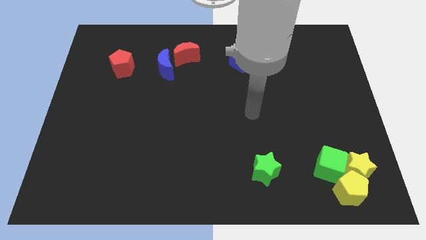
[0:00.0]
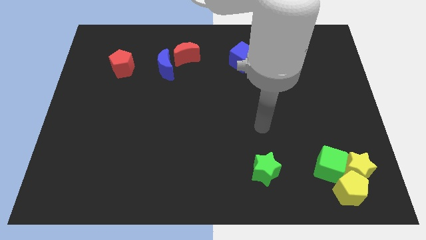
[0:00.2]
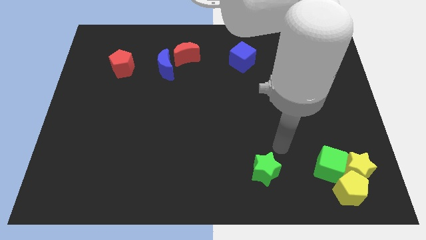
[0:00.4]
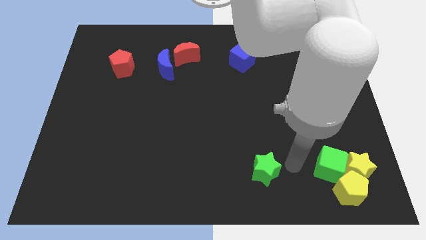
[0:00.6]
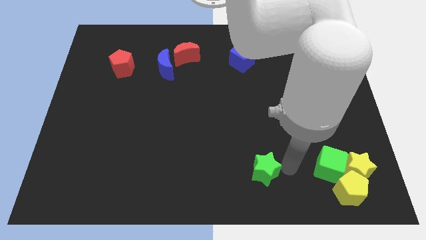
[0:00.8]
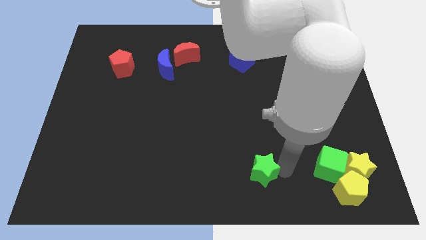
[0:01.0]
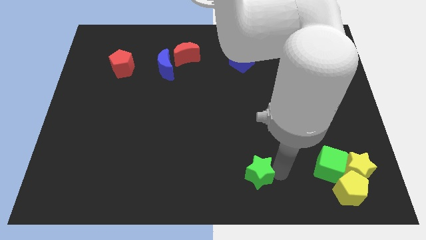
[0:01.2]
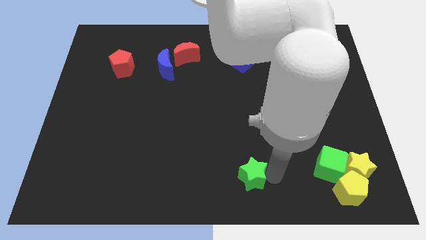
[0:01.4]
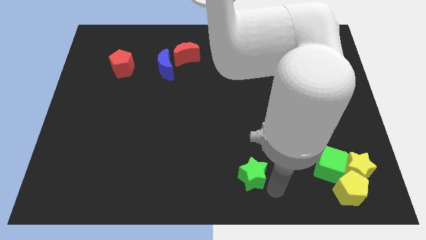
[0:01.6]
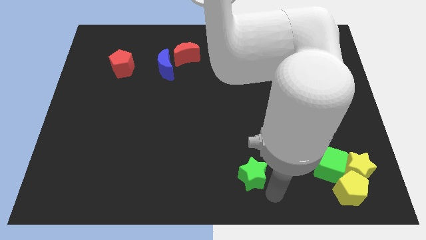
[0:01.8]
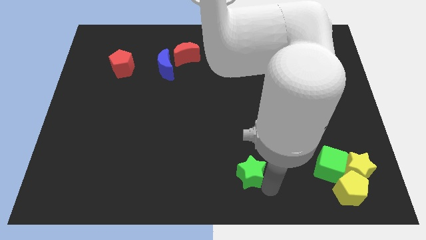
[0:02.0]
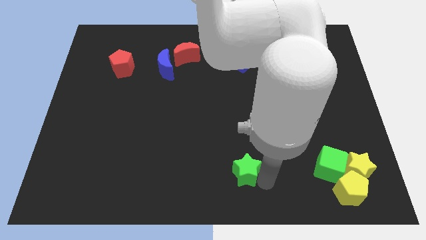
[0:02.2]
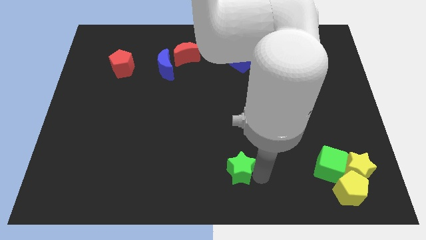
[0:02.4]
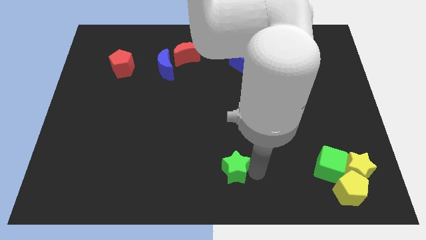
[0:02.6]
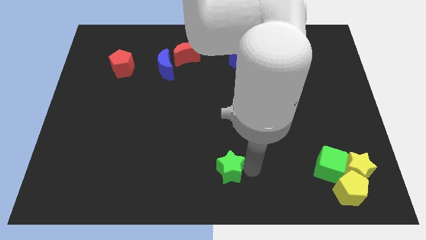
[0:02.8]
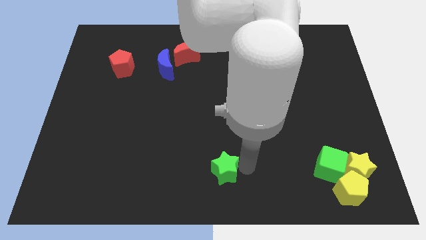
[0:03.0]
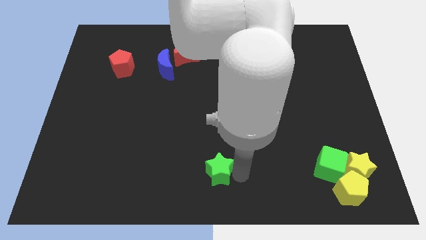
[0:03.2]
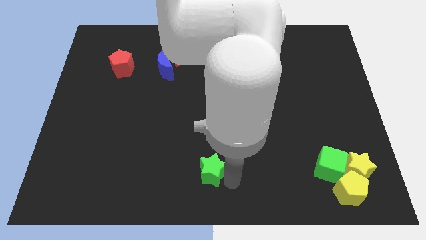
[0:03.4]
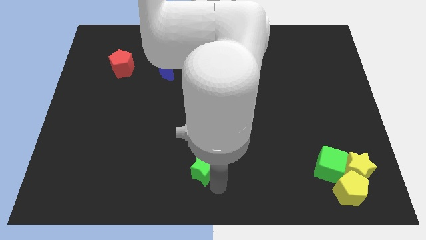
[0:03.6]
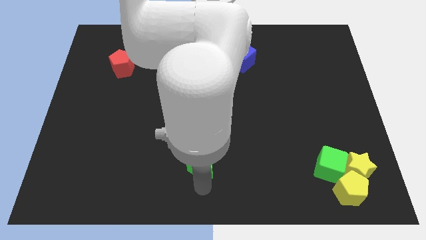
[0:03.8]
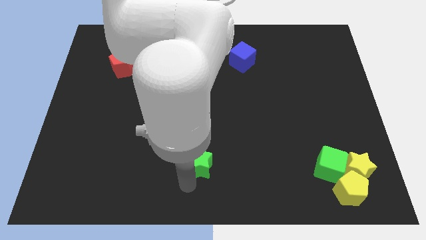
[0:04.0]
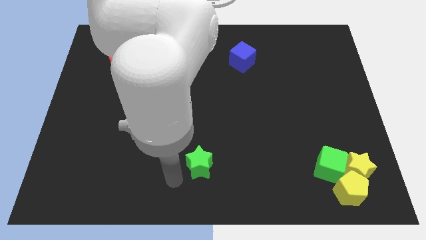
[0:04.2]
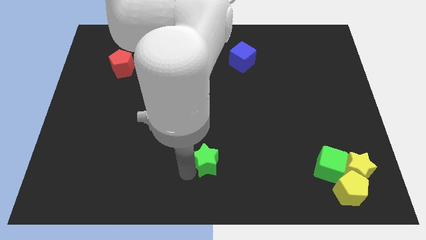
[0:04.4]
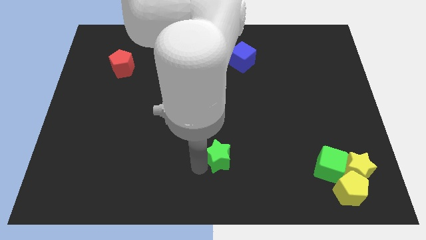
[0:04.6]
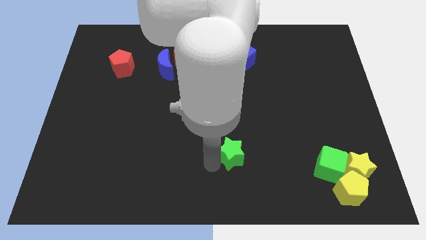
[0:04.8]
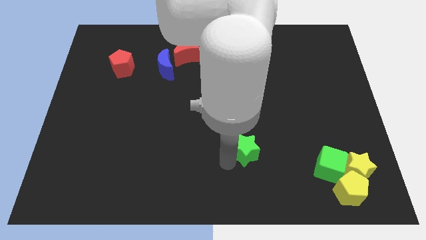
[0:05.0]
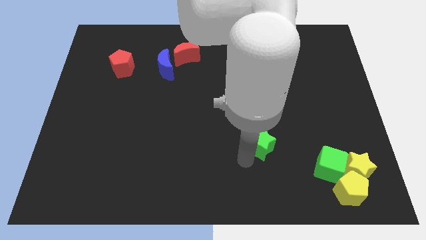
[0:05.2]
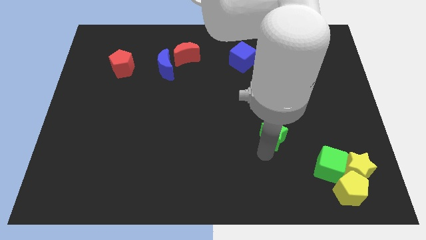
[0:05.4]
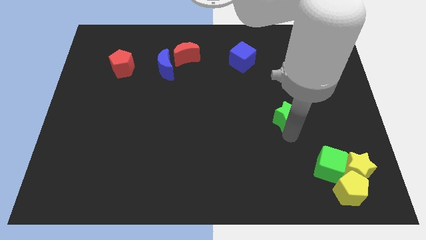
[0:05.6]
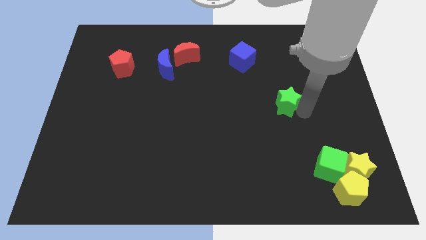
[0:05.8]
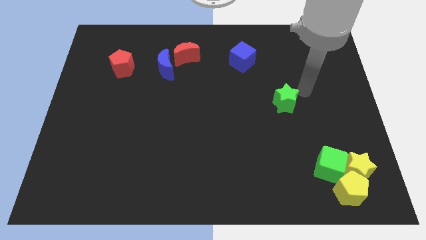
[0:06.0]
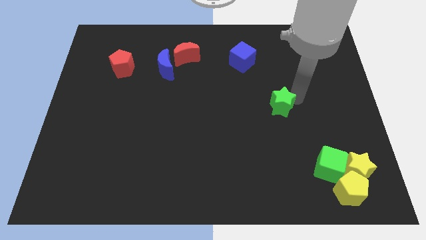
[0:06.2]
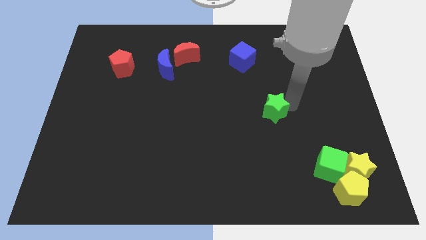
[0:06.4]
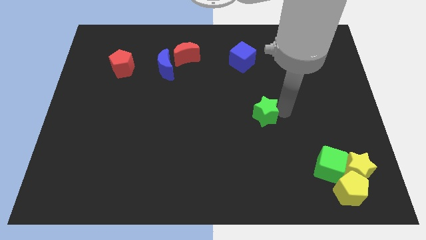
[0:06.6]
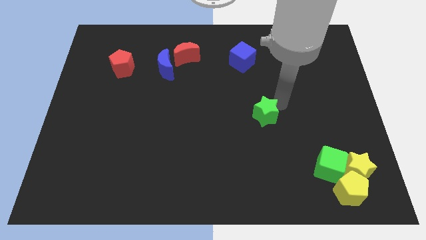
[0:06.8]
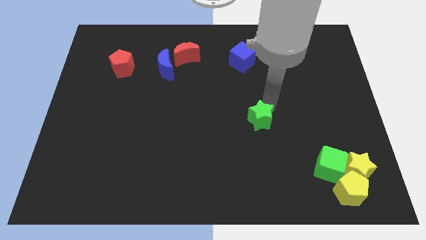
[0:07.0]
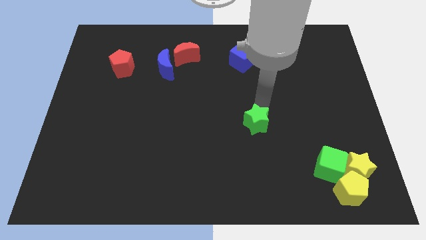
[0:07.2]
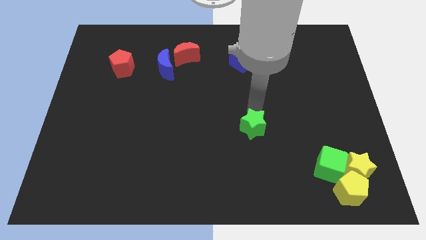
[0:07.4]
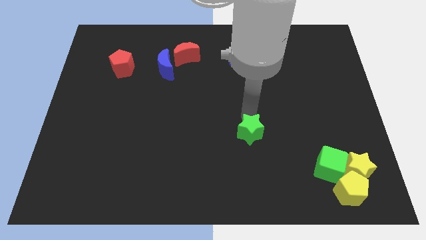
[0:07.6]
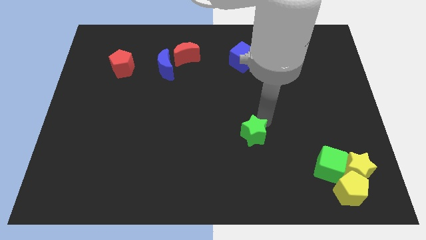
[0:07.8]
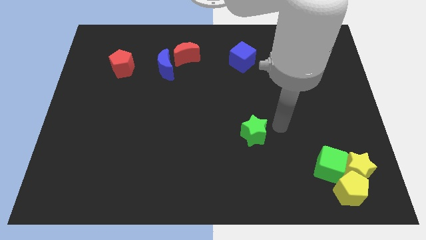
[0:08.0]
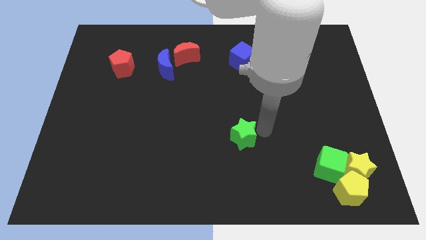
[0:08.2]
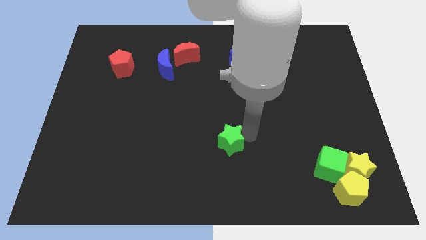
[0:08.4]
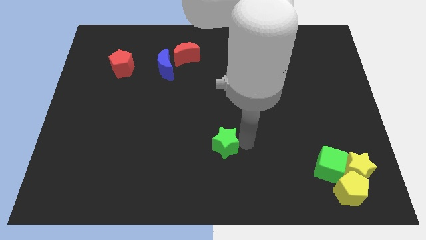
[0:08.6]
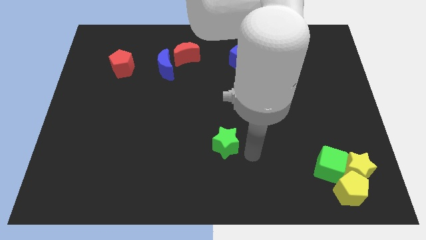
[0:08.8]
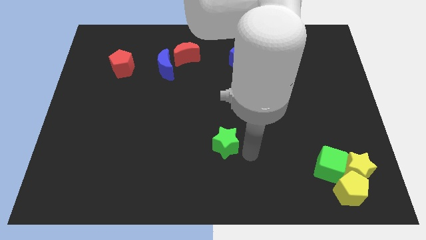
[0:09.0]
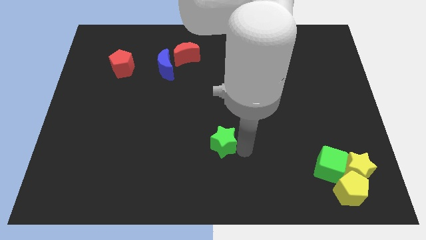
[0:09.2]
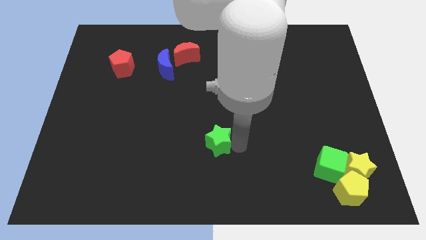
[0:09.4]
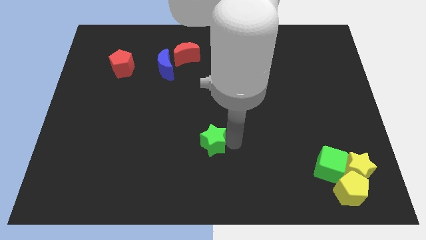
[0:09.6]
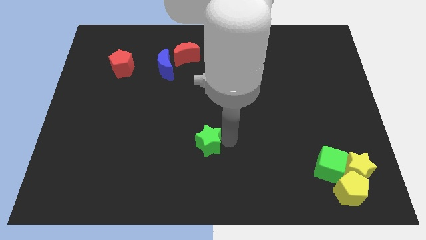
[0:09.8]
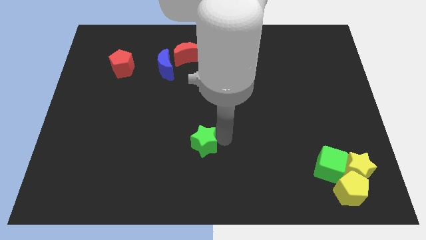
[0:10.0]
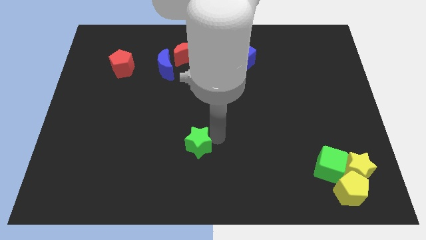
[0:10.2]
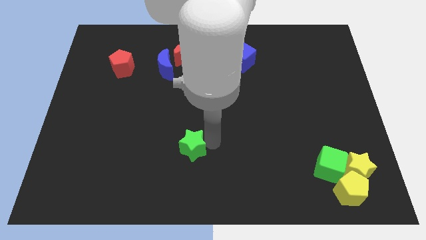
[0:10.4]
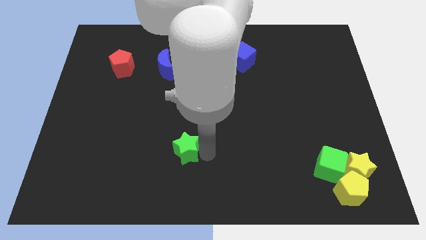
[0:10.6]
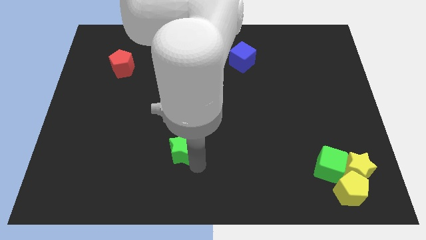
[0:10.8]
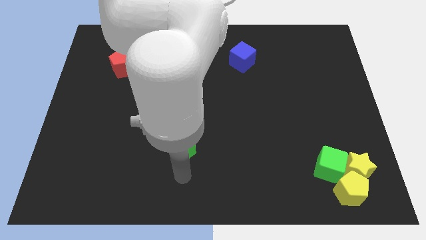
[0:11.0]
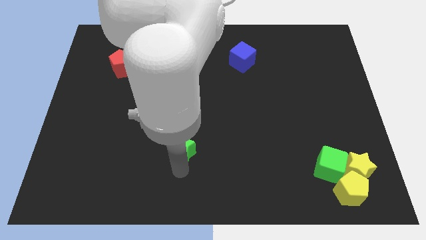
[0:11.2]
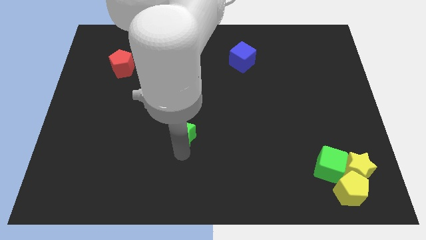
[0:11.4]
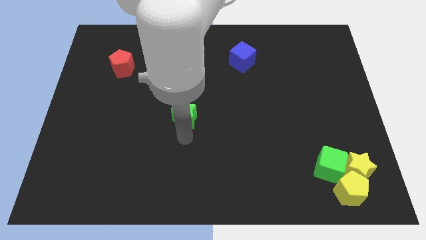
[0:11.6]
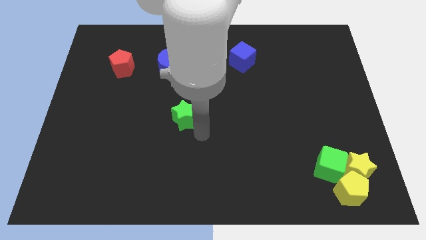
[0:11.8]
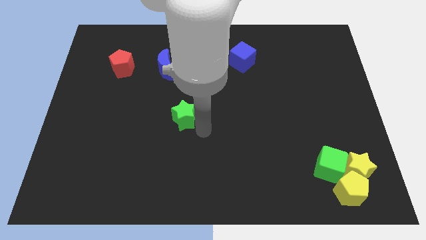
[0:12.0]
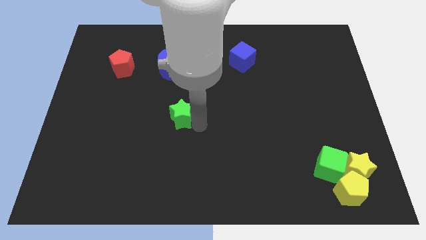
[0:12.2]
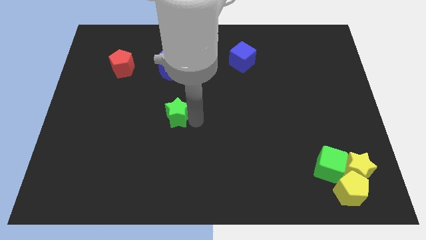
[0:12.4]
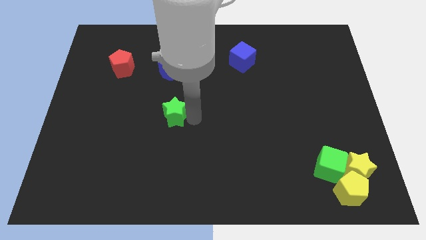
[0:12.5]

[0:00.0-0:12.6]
slide the green star to the bottom of the blue moon

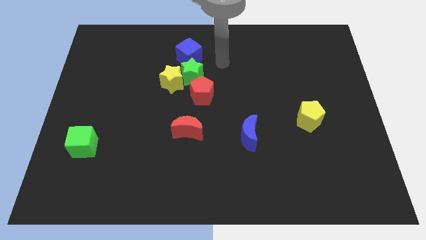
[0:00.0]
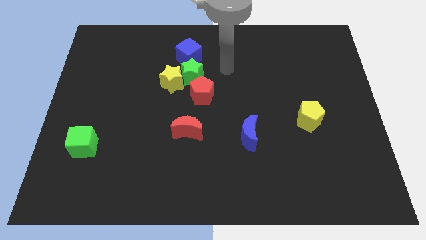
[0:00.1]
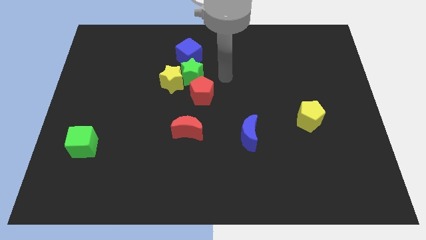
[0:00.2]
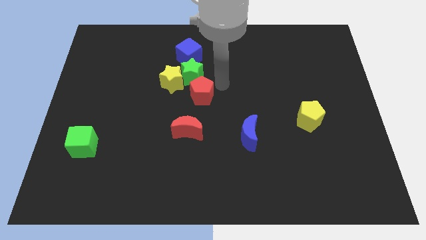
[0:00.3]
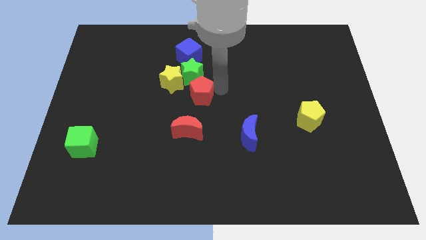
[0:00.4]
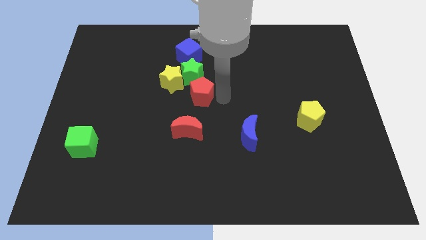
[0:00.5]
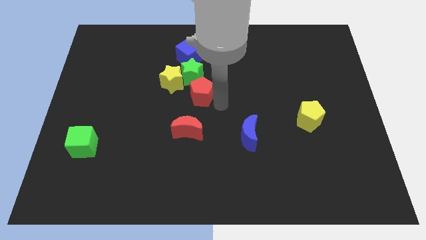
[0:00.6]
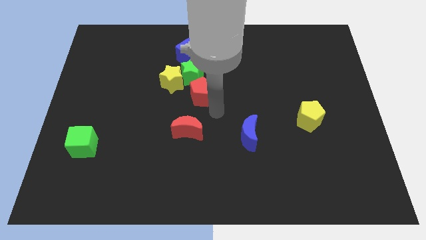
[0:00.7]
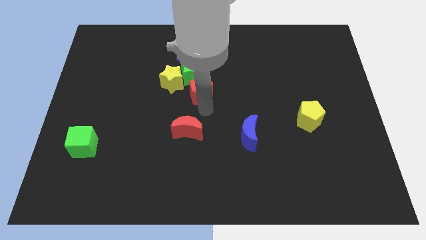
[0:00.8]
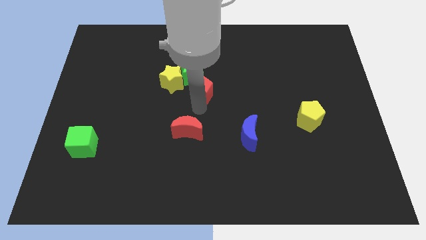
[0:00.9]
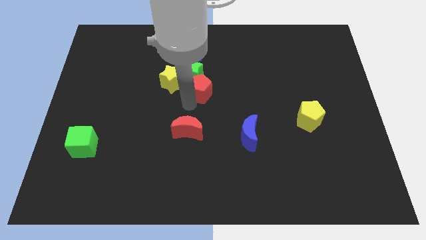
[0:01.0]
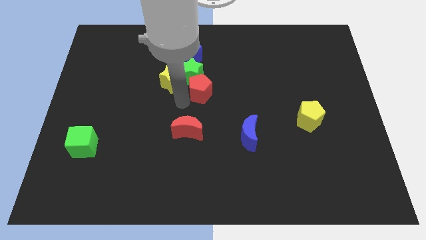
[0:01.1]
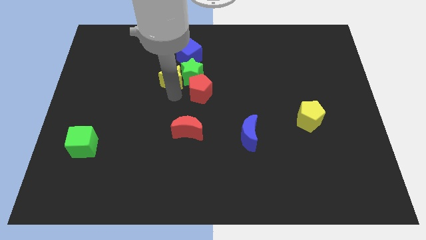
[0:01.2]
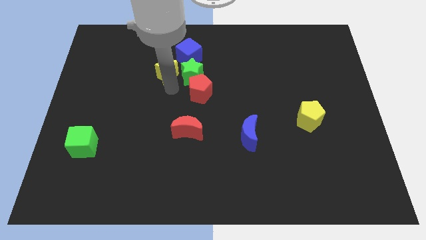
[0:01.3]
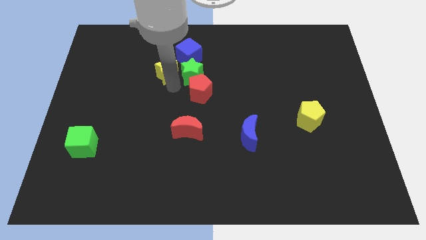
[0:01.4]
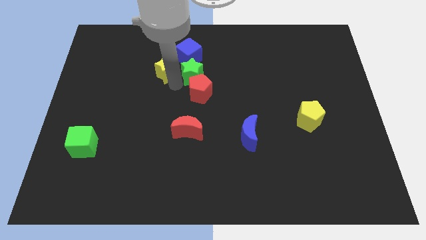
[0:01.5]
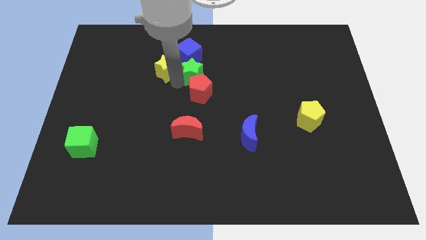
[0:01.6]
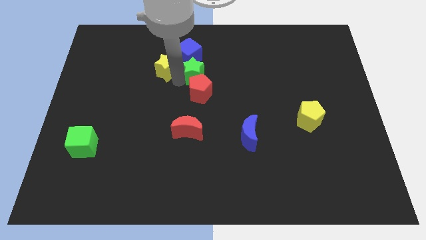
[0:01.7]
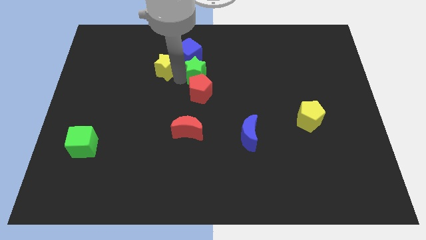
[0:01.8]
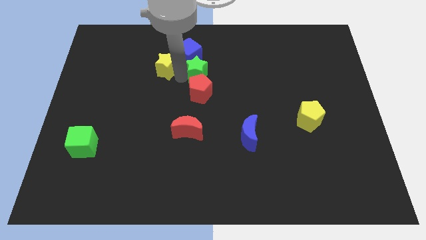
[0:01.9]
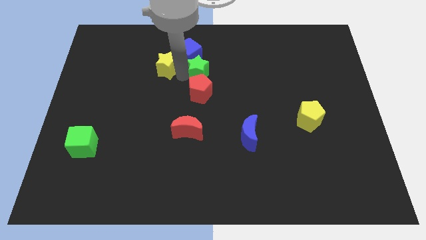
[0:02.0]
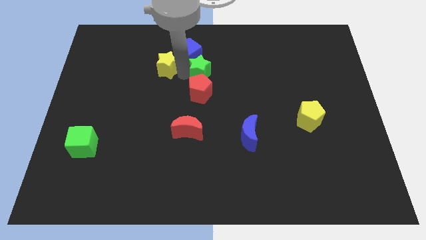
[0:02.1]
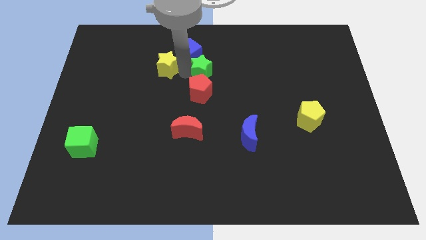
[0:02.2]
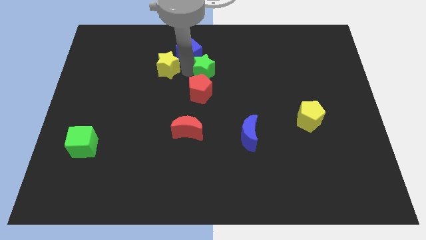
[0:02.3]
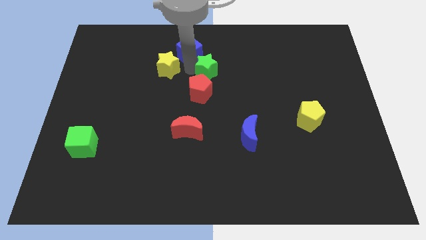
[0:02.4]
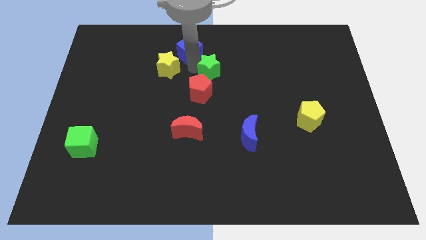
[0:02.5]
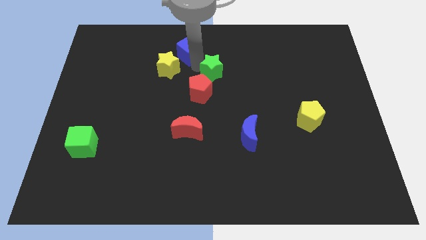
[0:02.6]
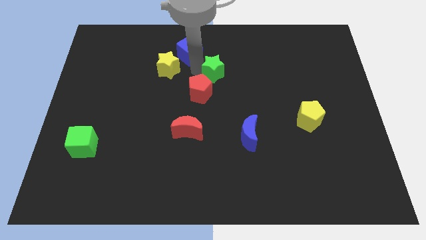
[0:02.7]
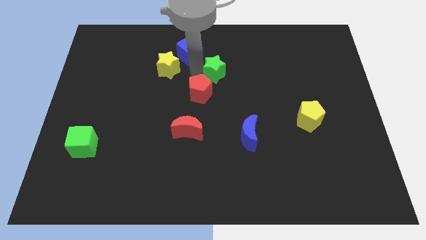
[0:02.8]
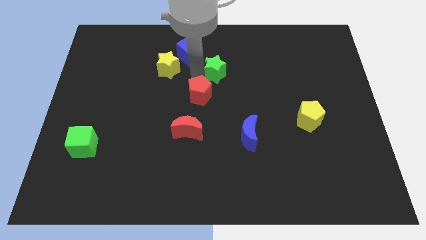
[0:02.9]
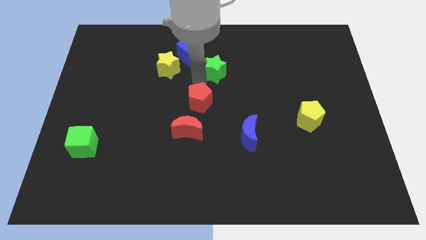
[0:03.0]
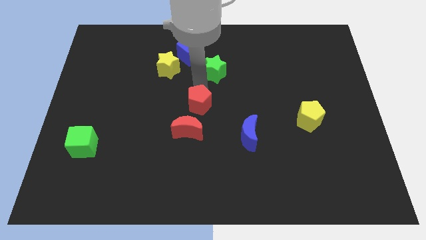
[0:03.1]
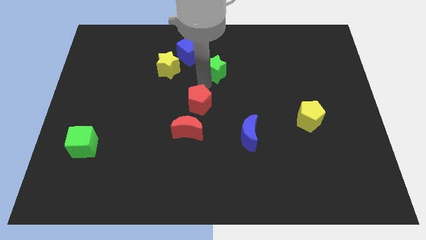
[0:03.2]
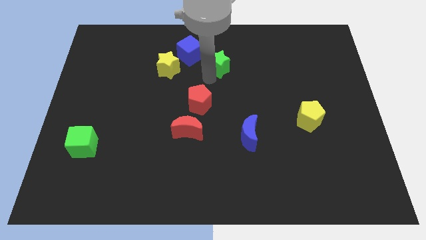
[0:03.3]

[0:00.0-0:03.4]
move the green star to the right side of the blue cube
